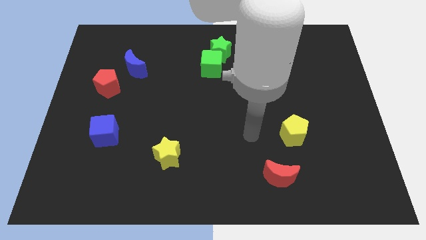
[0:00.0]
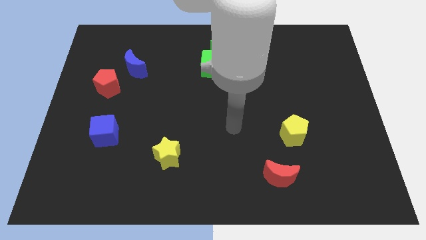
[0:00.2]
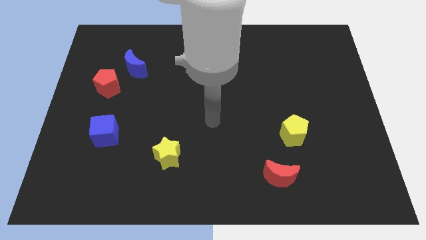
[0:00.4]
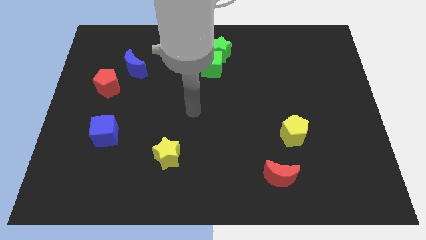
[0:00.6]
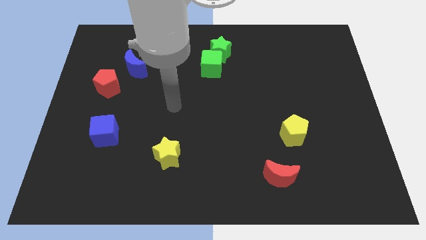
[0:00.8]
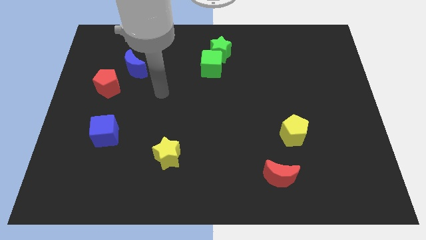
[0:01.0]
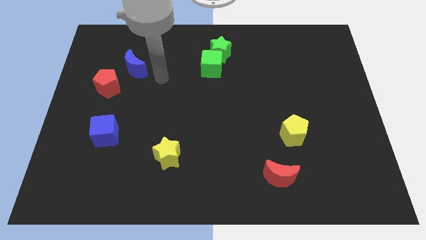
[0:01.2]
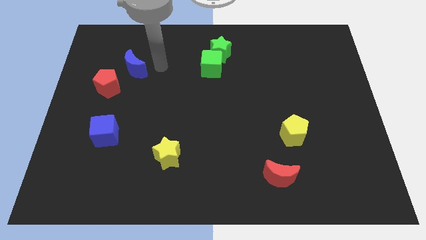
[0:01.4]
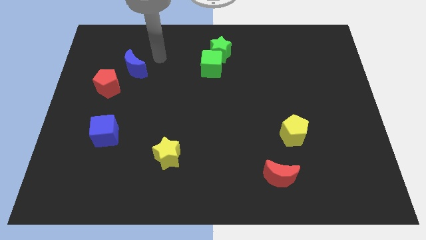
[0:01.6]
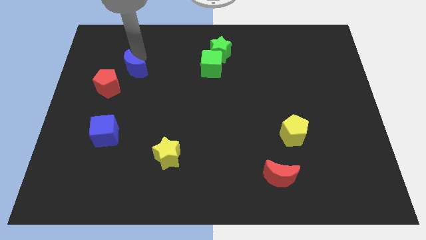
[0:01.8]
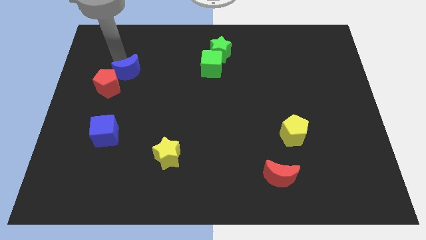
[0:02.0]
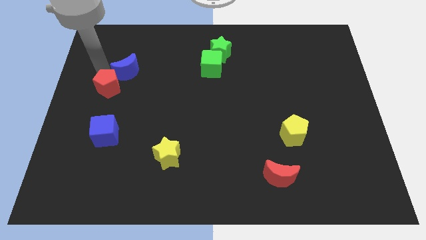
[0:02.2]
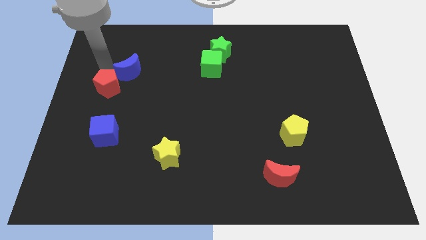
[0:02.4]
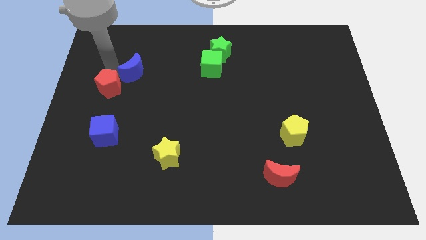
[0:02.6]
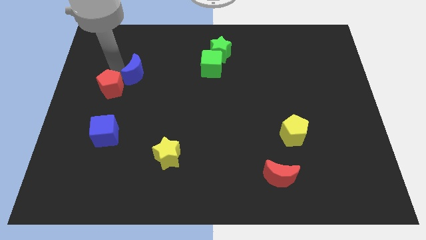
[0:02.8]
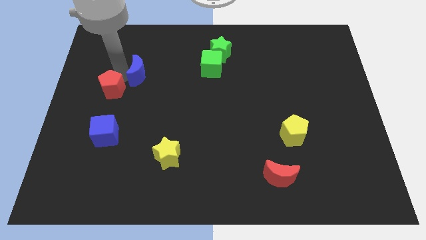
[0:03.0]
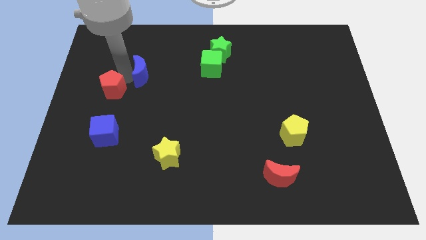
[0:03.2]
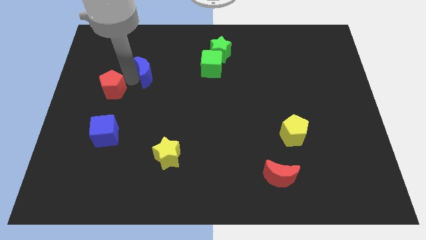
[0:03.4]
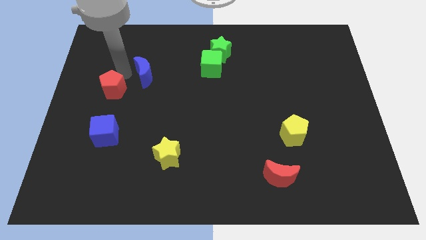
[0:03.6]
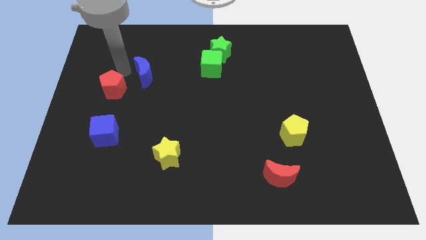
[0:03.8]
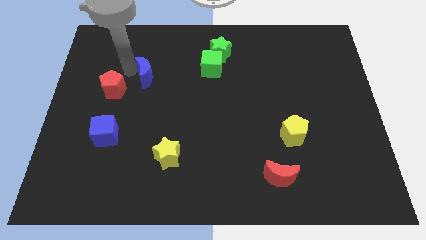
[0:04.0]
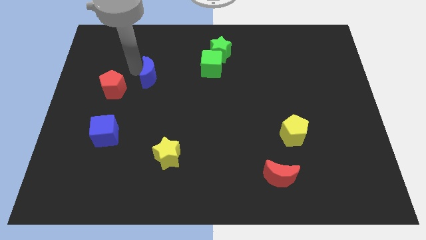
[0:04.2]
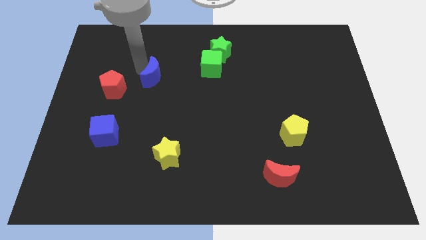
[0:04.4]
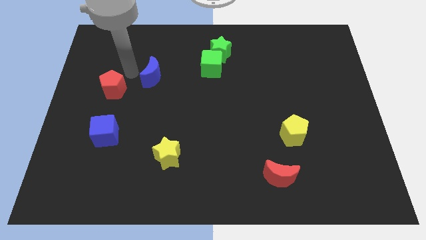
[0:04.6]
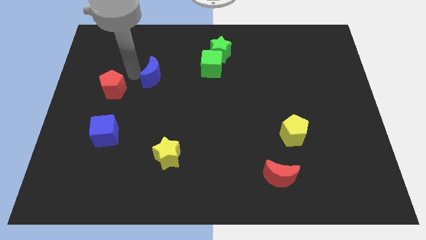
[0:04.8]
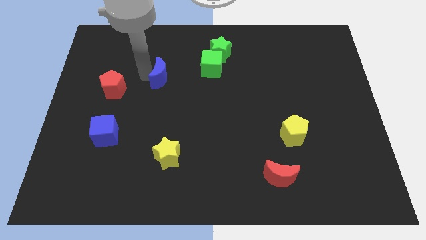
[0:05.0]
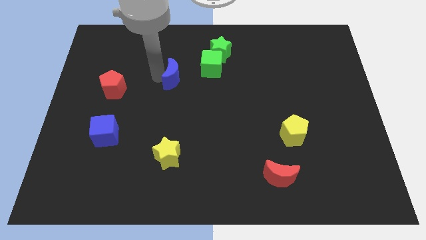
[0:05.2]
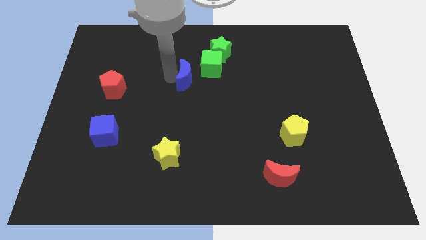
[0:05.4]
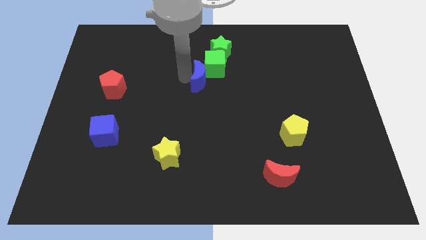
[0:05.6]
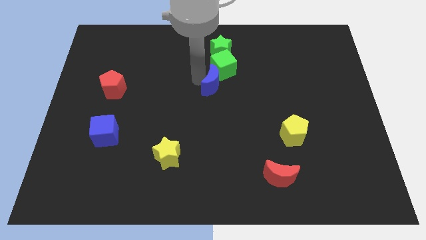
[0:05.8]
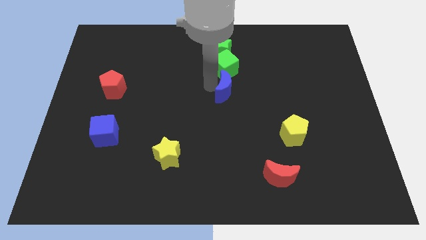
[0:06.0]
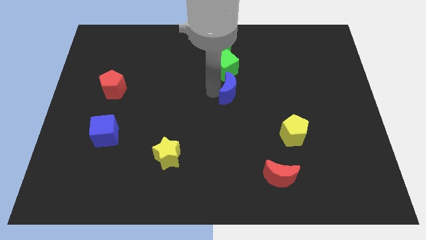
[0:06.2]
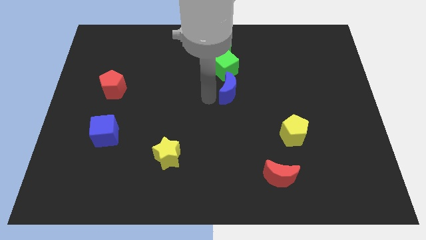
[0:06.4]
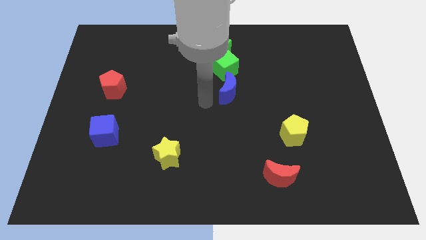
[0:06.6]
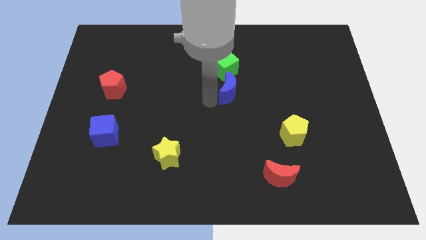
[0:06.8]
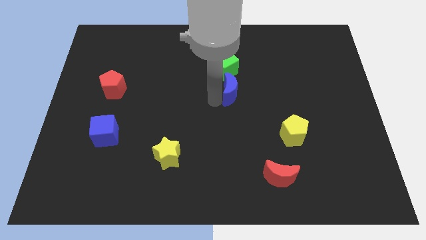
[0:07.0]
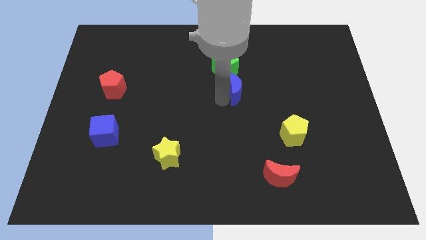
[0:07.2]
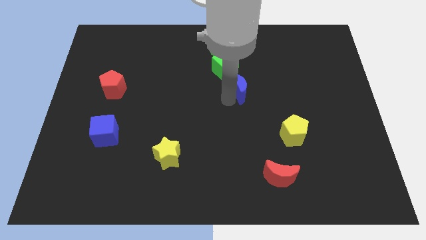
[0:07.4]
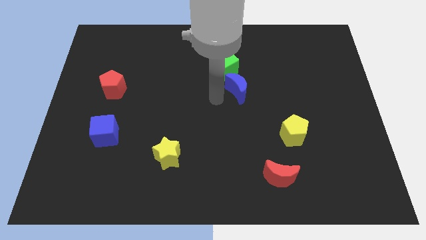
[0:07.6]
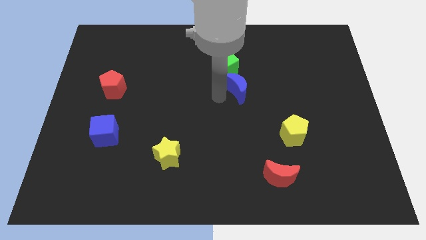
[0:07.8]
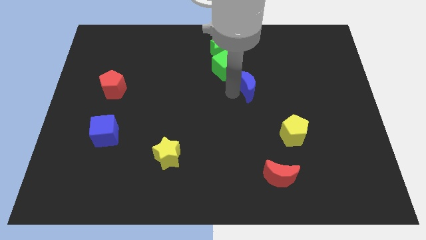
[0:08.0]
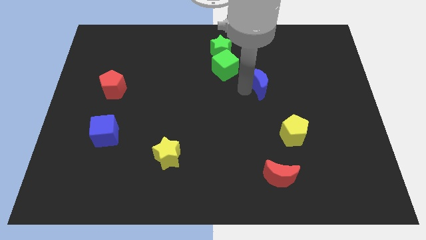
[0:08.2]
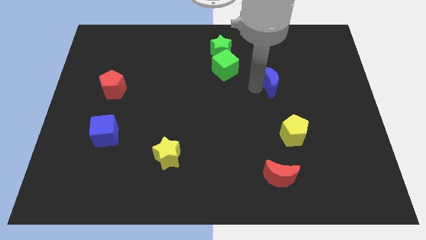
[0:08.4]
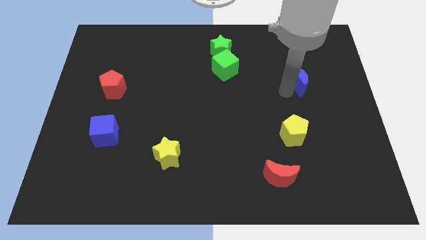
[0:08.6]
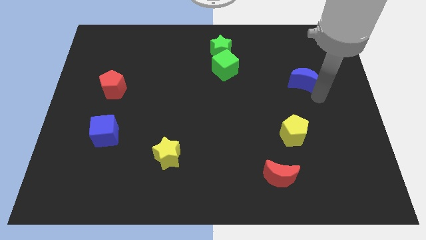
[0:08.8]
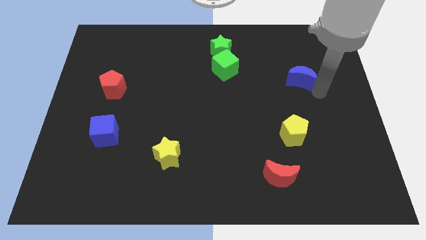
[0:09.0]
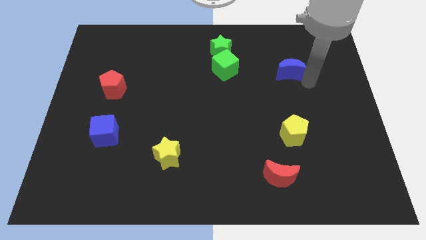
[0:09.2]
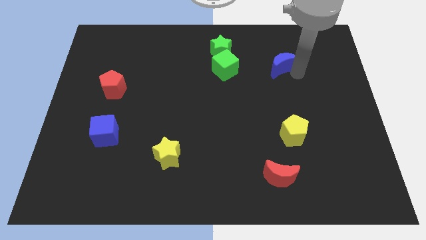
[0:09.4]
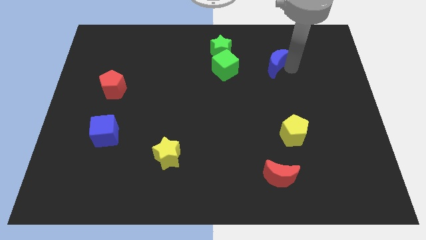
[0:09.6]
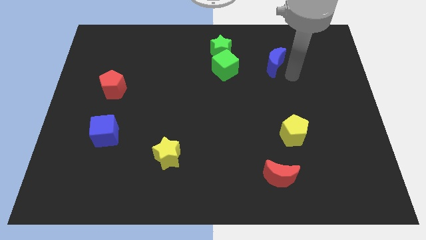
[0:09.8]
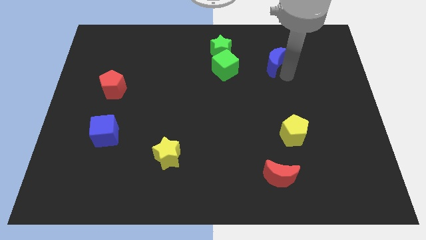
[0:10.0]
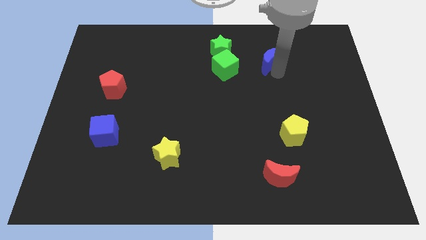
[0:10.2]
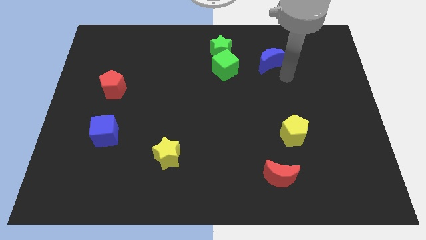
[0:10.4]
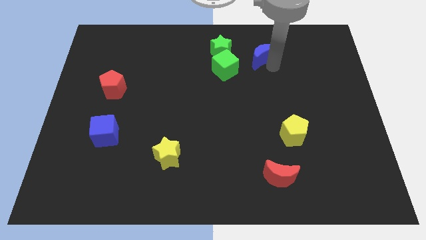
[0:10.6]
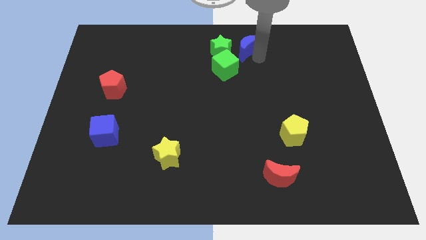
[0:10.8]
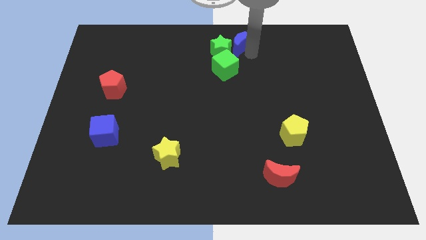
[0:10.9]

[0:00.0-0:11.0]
push the blue moon to the top

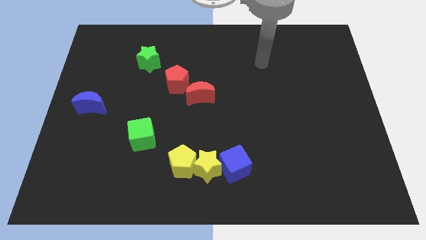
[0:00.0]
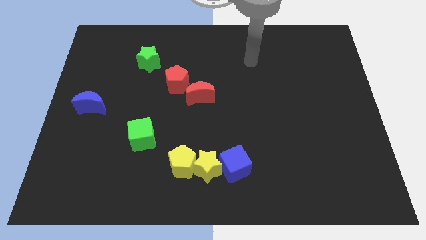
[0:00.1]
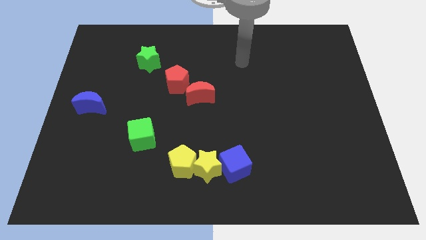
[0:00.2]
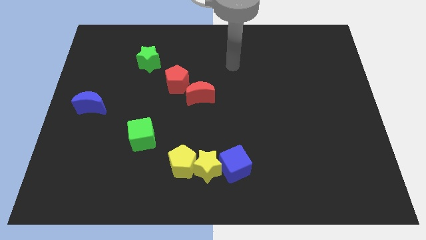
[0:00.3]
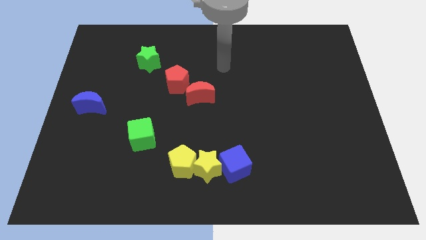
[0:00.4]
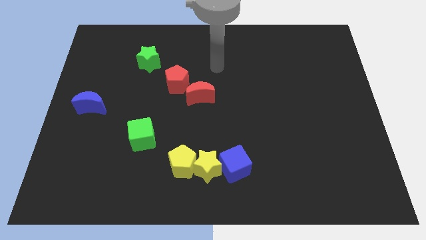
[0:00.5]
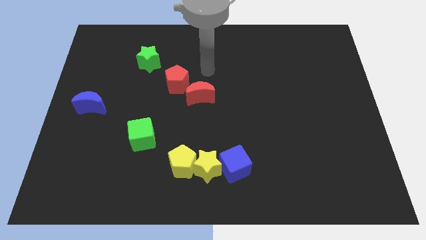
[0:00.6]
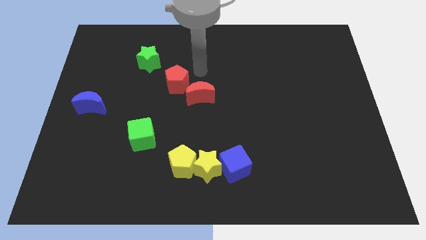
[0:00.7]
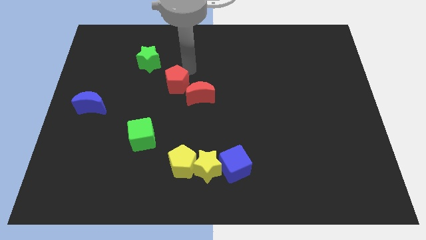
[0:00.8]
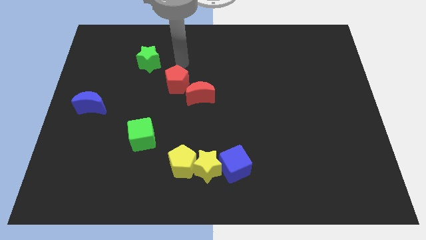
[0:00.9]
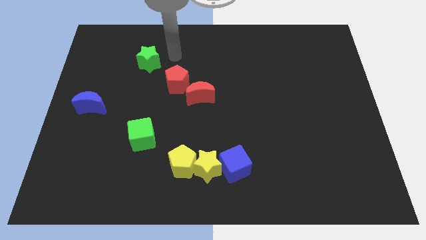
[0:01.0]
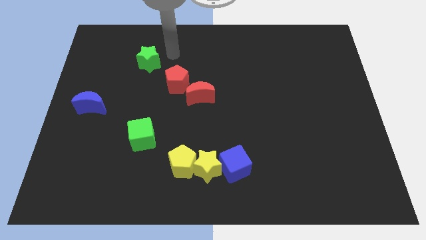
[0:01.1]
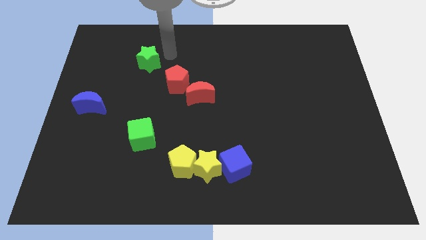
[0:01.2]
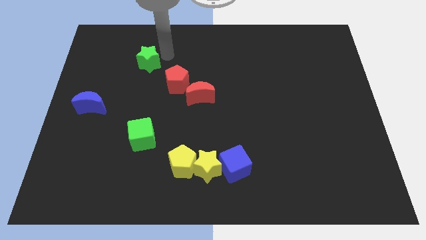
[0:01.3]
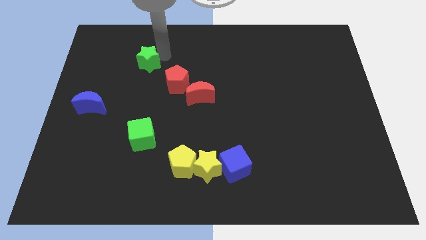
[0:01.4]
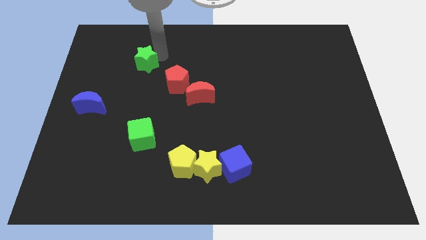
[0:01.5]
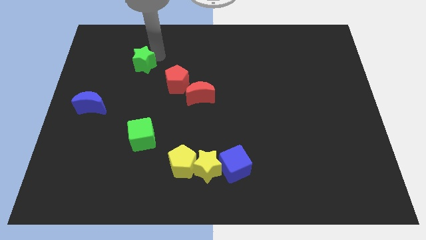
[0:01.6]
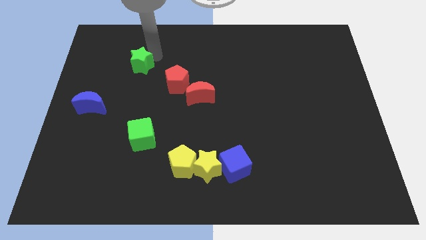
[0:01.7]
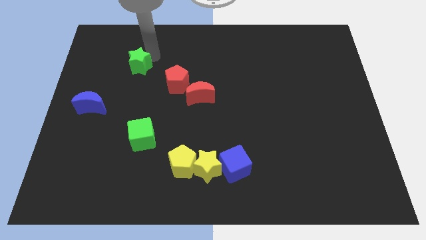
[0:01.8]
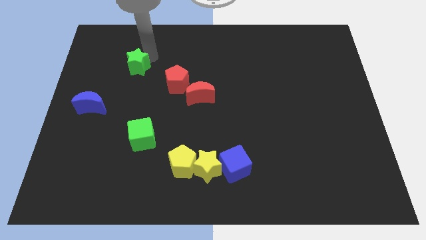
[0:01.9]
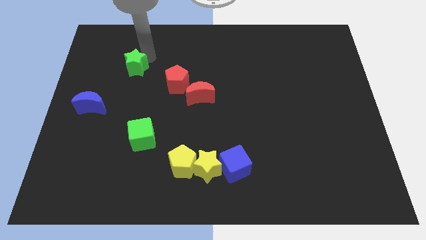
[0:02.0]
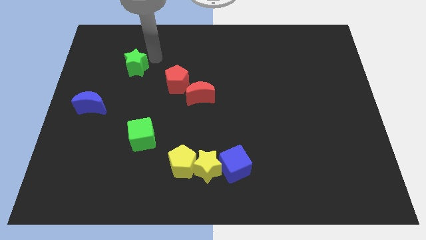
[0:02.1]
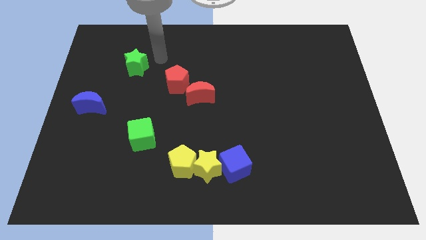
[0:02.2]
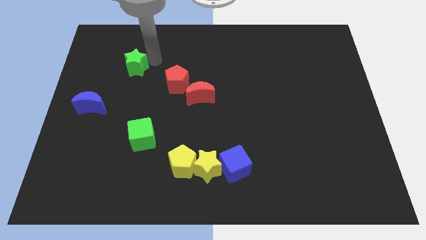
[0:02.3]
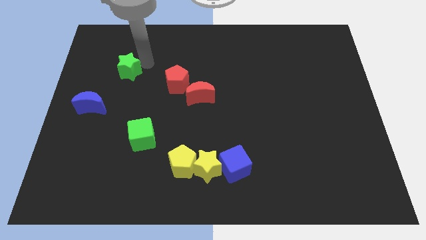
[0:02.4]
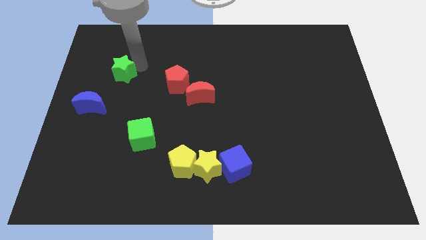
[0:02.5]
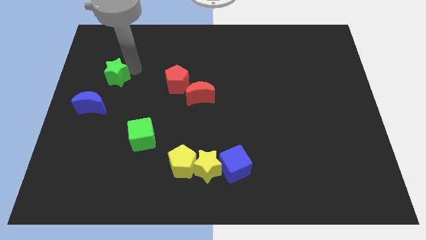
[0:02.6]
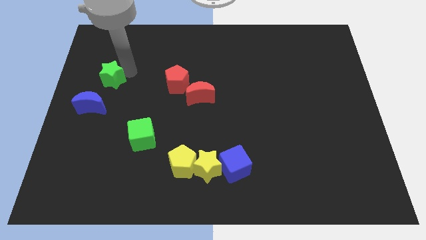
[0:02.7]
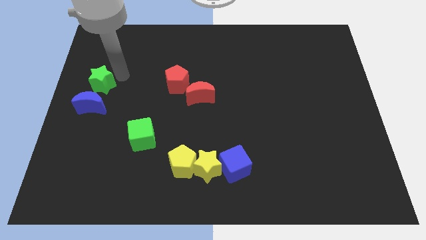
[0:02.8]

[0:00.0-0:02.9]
move the green star to the left side of the board
